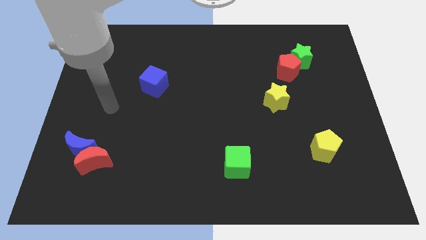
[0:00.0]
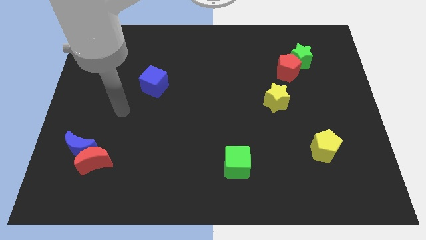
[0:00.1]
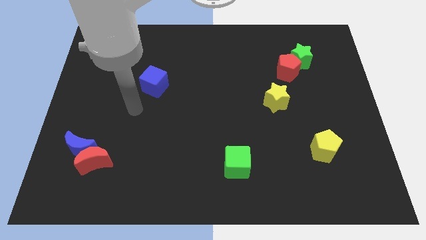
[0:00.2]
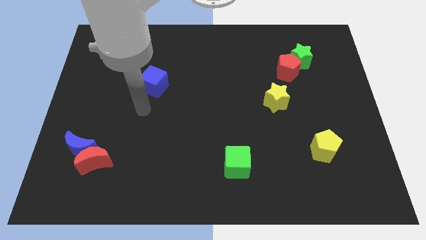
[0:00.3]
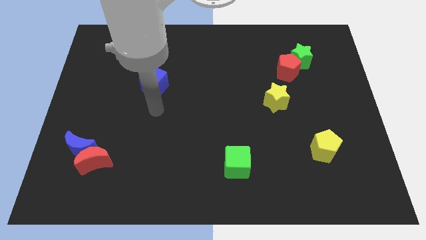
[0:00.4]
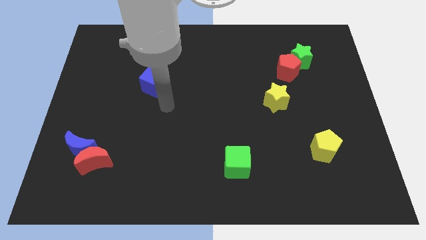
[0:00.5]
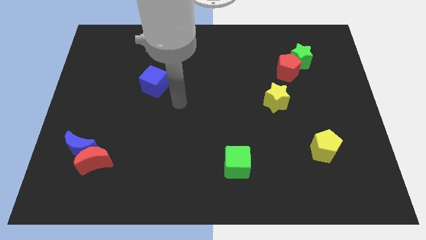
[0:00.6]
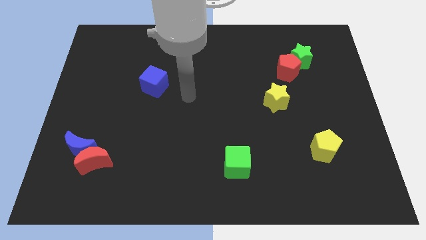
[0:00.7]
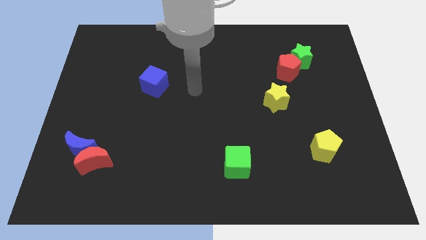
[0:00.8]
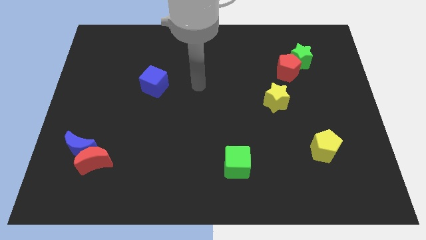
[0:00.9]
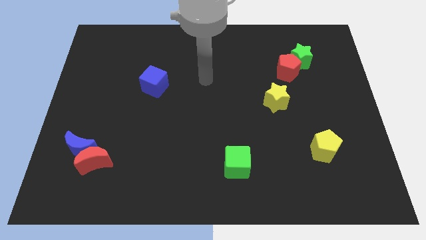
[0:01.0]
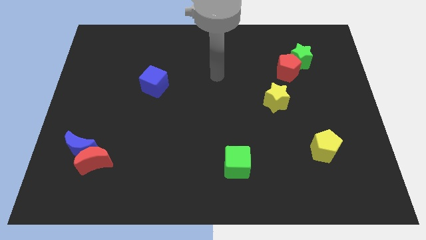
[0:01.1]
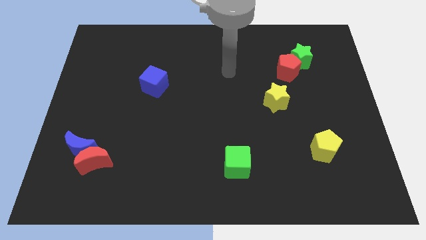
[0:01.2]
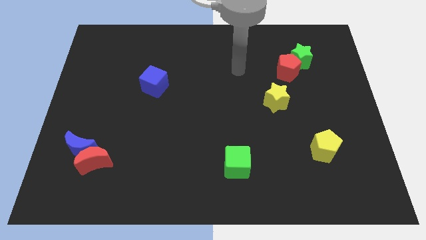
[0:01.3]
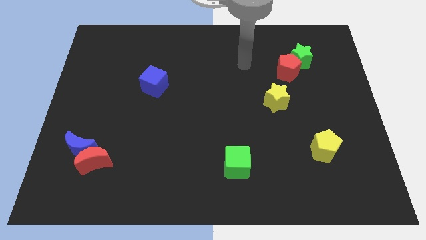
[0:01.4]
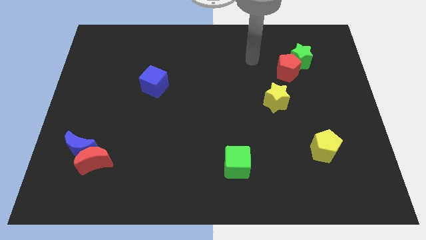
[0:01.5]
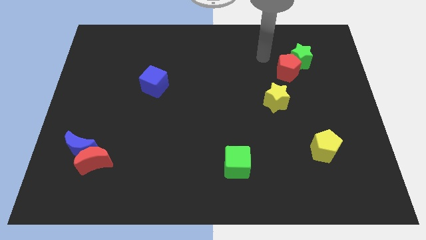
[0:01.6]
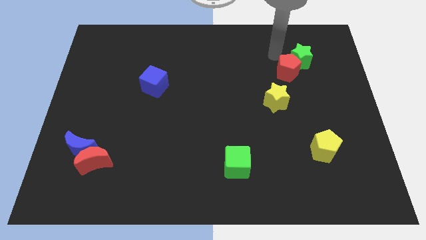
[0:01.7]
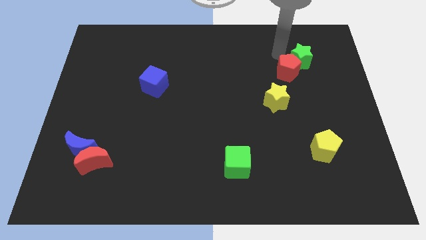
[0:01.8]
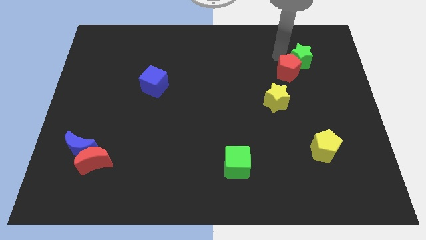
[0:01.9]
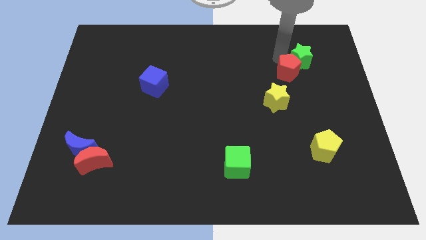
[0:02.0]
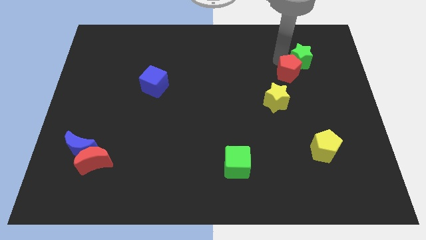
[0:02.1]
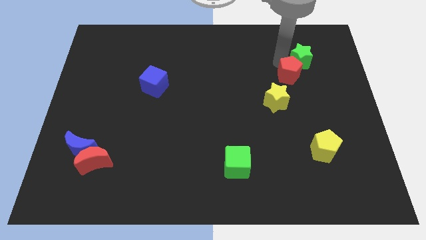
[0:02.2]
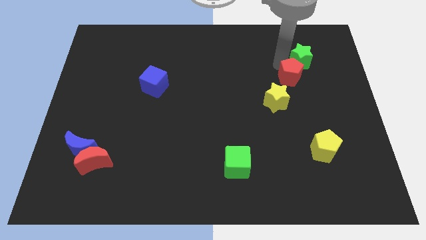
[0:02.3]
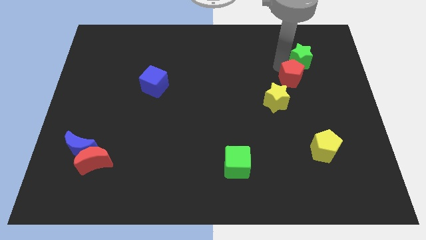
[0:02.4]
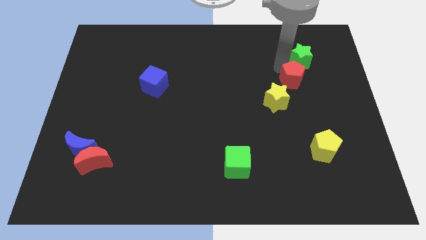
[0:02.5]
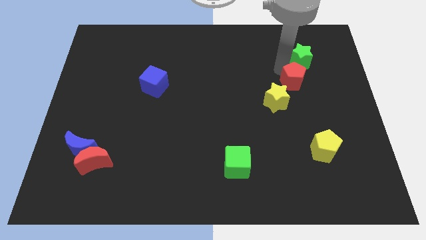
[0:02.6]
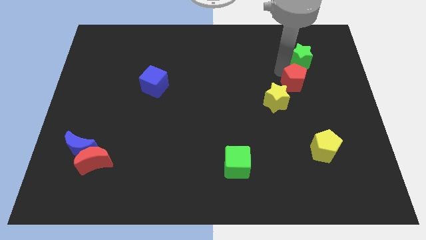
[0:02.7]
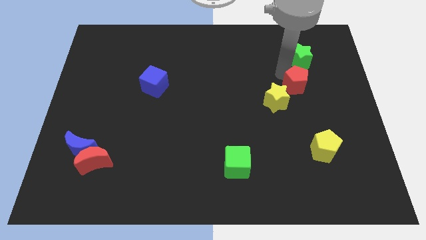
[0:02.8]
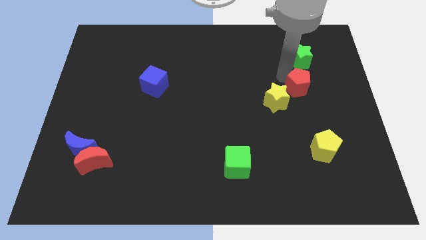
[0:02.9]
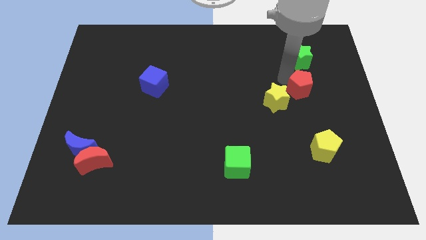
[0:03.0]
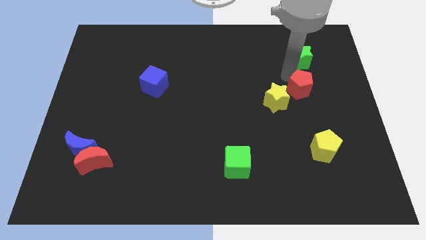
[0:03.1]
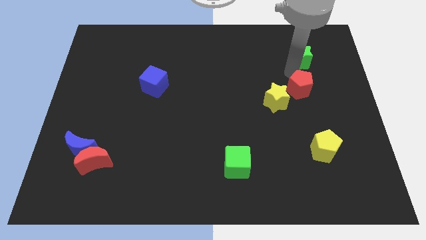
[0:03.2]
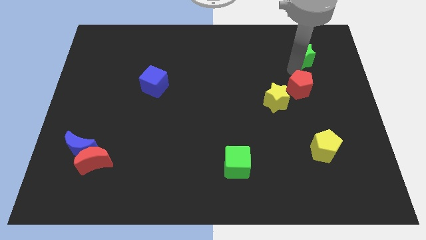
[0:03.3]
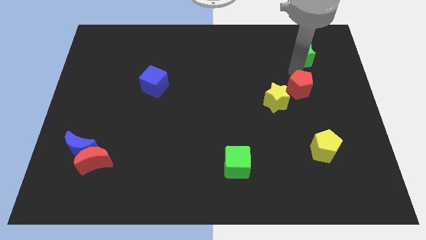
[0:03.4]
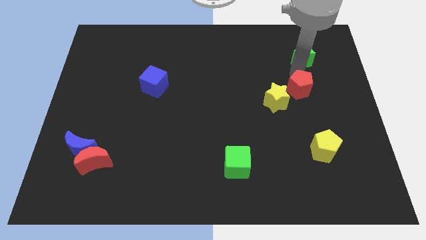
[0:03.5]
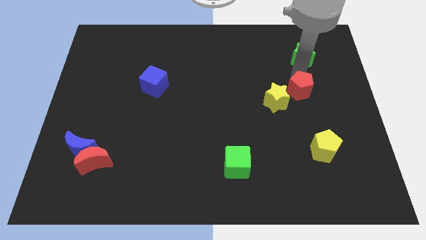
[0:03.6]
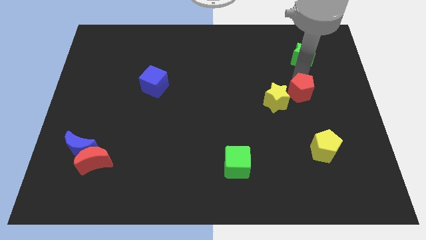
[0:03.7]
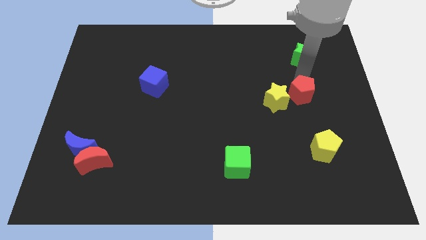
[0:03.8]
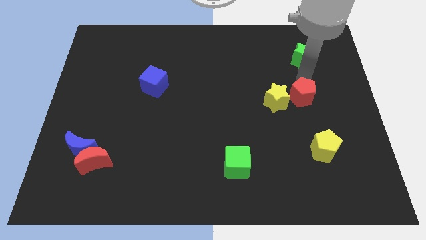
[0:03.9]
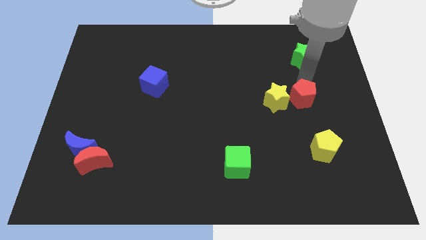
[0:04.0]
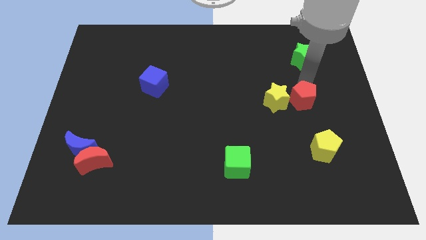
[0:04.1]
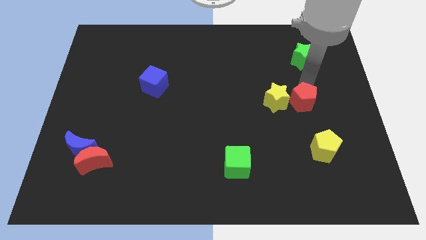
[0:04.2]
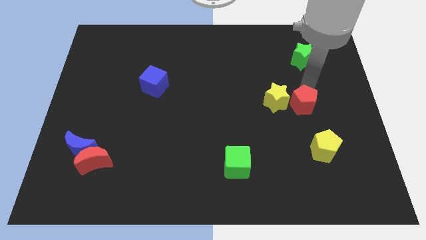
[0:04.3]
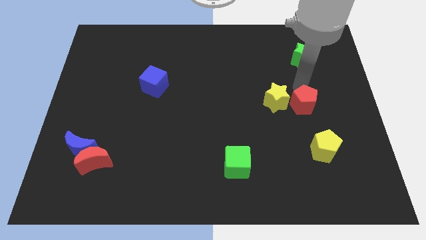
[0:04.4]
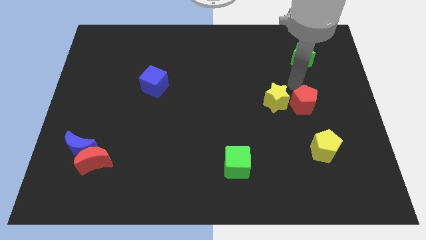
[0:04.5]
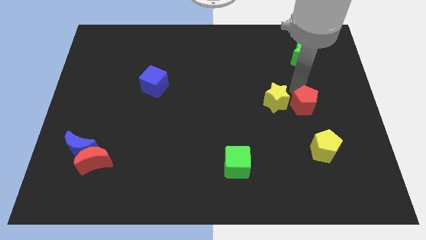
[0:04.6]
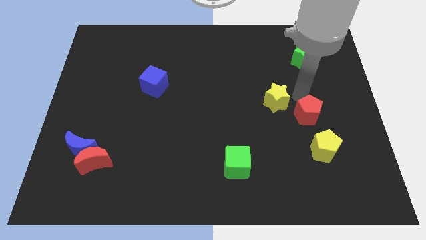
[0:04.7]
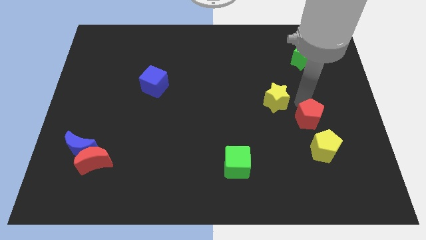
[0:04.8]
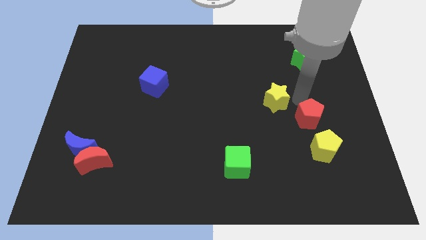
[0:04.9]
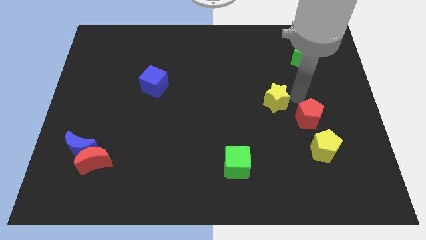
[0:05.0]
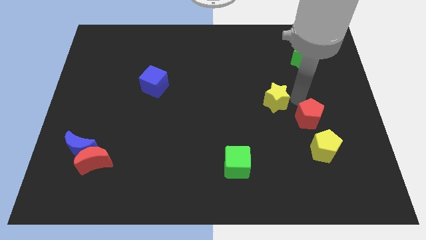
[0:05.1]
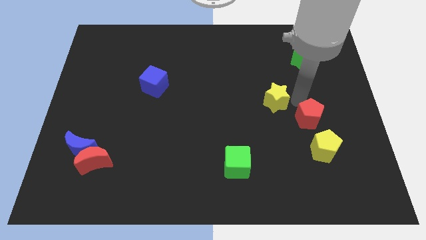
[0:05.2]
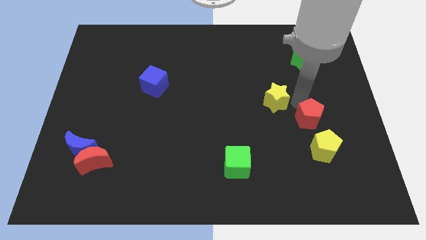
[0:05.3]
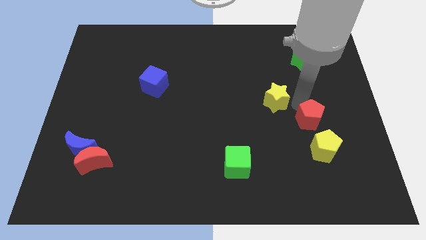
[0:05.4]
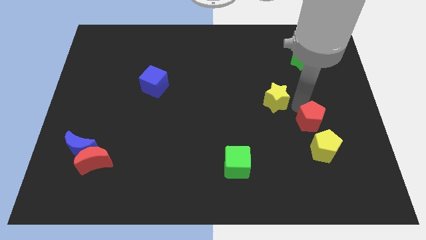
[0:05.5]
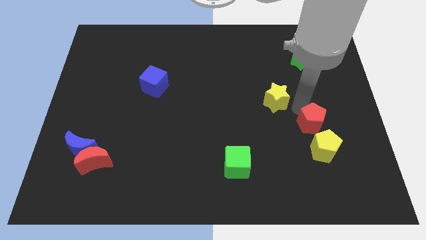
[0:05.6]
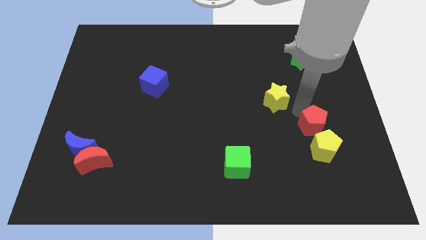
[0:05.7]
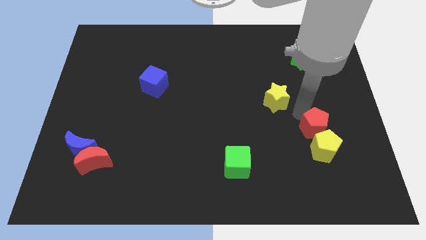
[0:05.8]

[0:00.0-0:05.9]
move the red pentagon next to the yellow pentagon

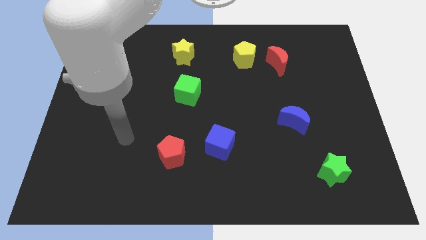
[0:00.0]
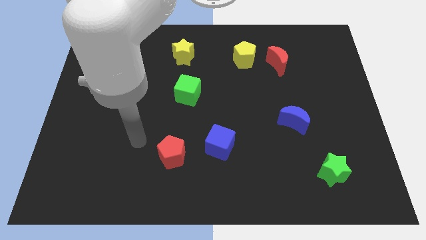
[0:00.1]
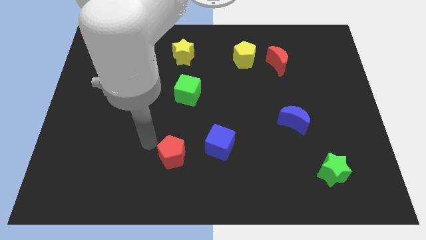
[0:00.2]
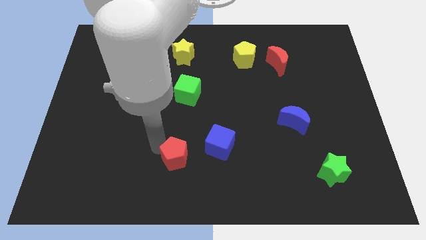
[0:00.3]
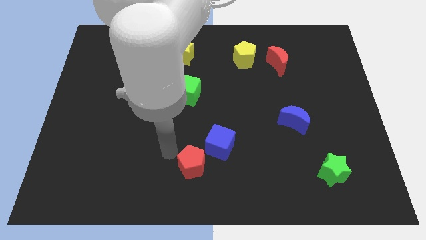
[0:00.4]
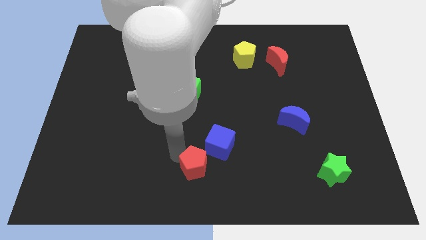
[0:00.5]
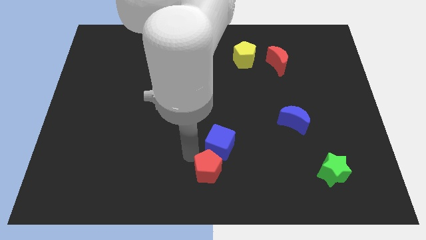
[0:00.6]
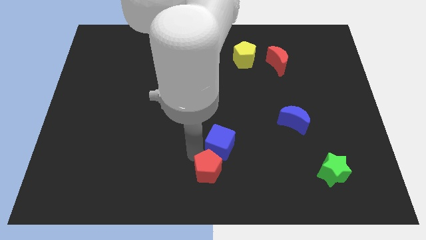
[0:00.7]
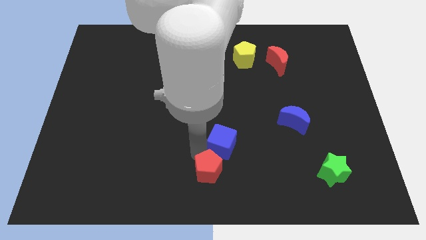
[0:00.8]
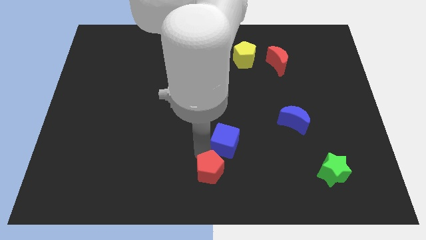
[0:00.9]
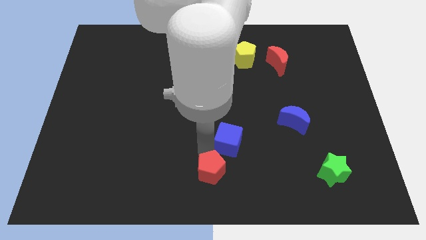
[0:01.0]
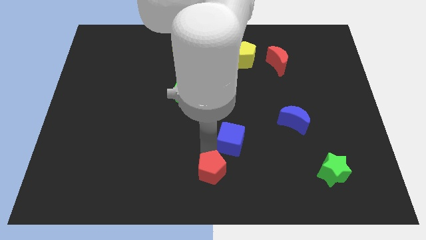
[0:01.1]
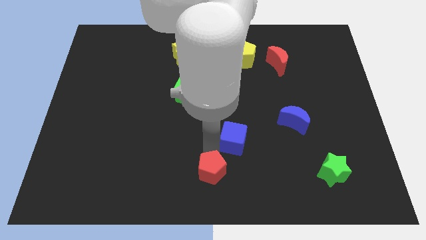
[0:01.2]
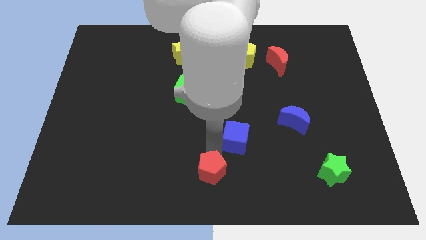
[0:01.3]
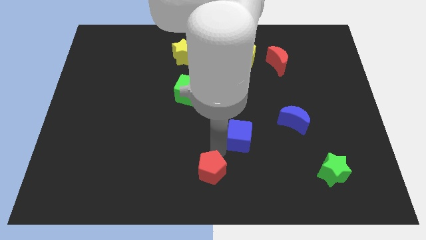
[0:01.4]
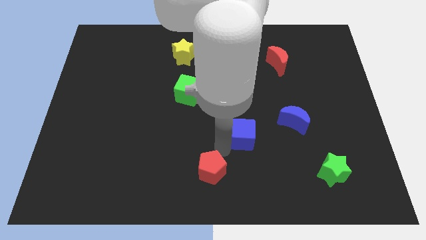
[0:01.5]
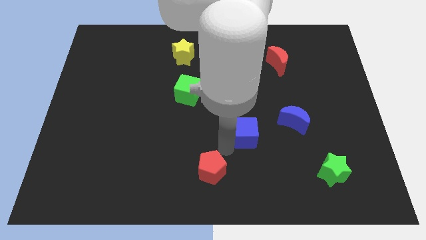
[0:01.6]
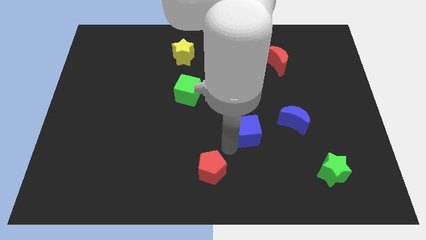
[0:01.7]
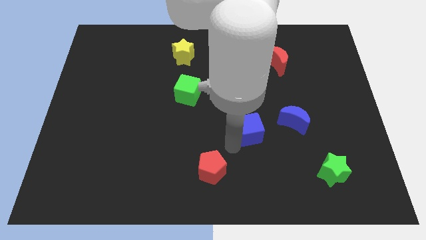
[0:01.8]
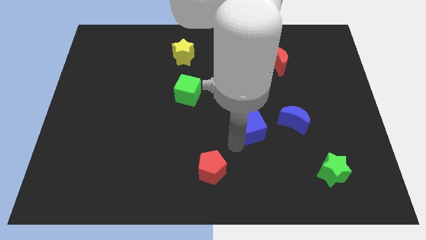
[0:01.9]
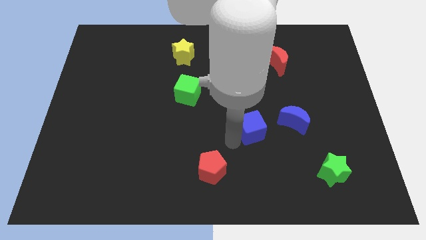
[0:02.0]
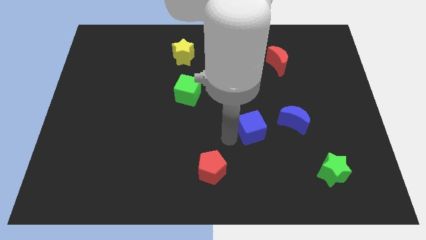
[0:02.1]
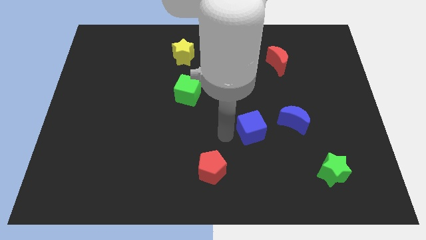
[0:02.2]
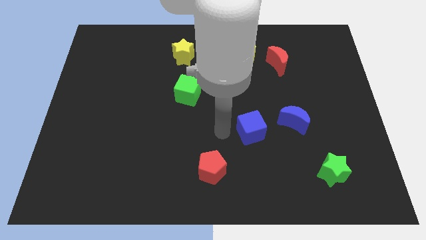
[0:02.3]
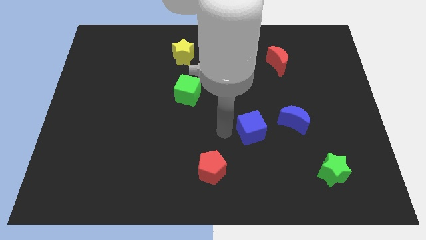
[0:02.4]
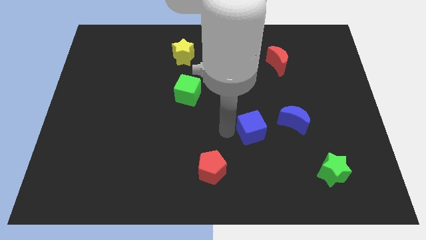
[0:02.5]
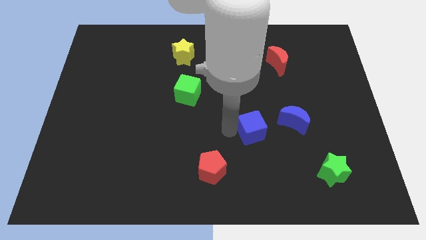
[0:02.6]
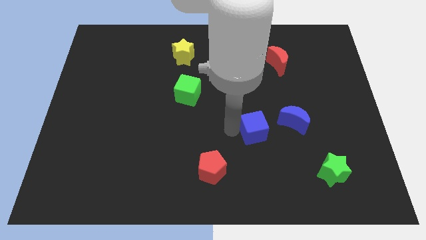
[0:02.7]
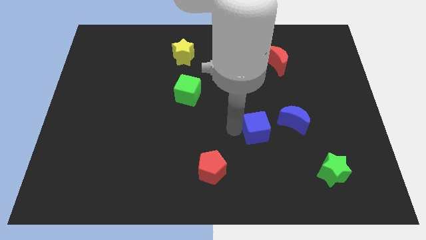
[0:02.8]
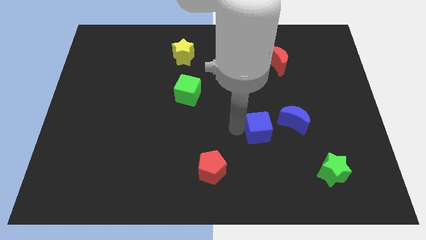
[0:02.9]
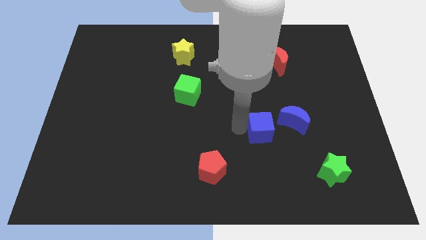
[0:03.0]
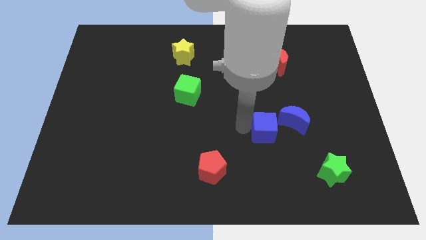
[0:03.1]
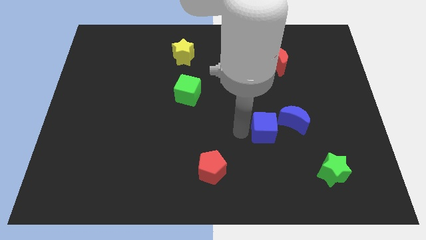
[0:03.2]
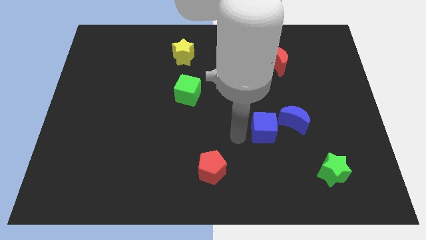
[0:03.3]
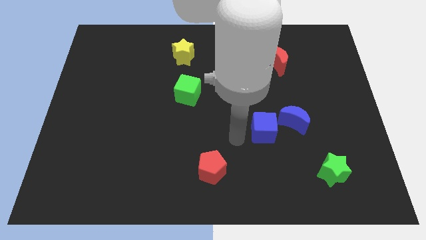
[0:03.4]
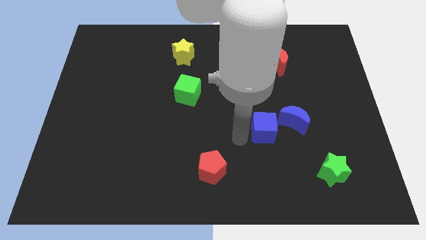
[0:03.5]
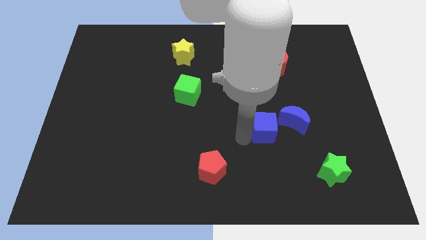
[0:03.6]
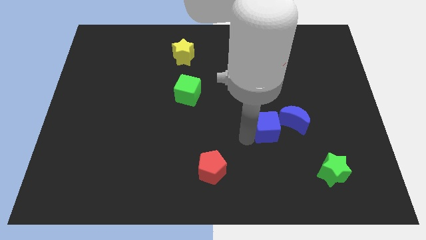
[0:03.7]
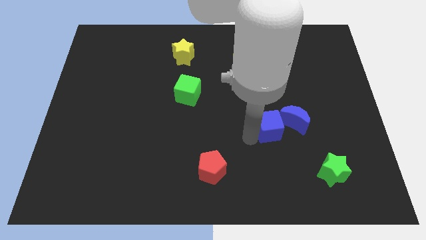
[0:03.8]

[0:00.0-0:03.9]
slide the blue cube next to the blue moon
